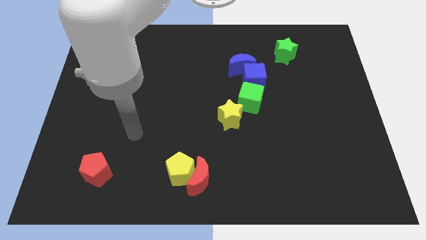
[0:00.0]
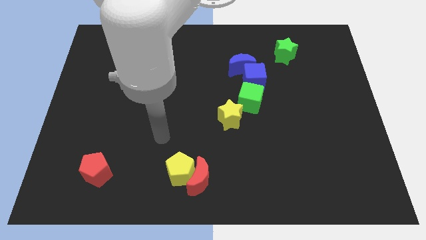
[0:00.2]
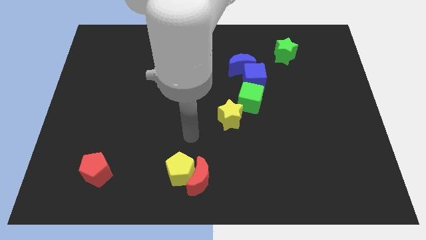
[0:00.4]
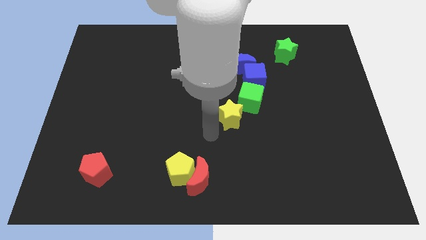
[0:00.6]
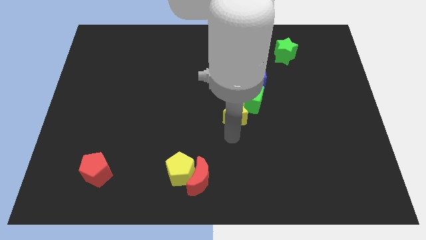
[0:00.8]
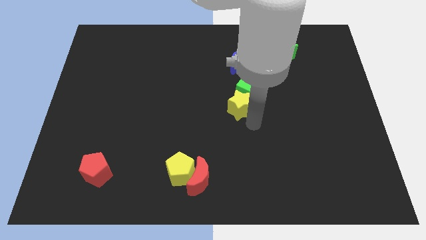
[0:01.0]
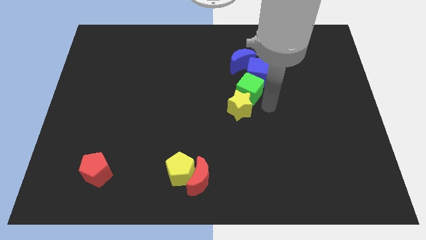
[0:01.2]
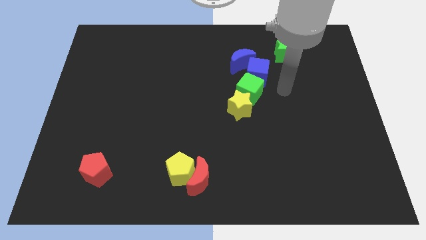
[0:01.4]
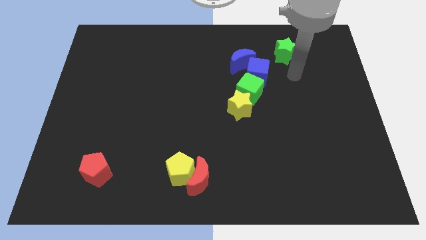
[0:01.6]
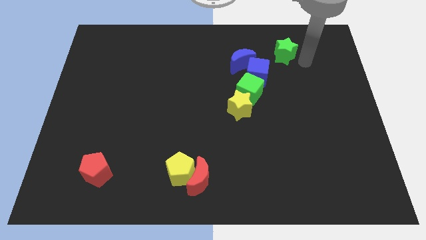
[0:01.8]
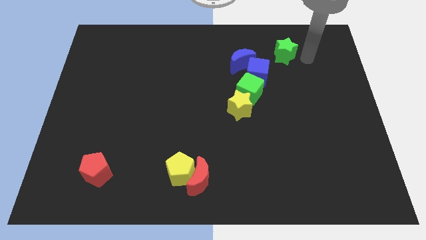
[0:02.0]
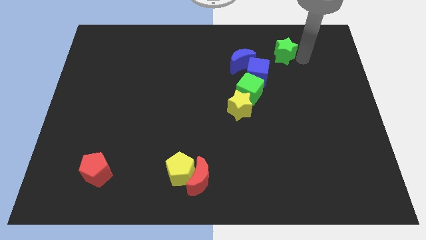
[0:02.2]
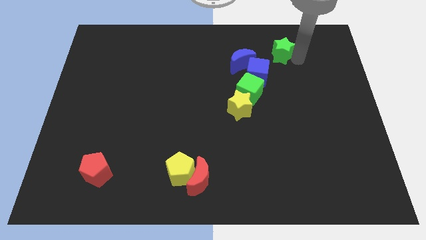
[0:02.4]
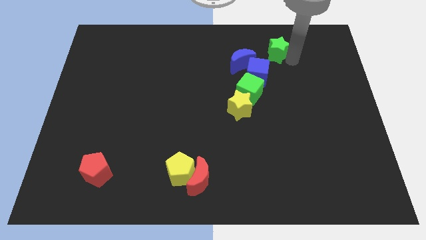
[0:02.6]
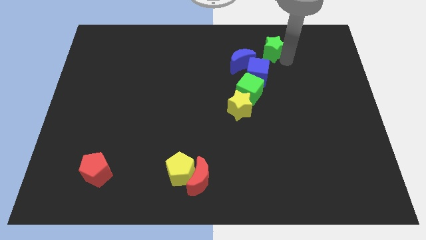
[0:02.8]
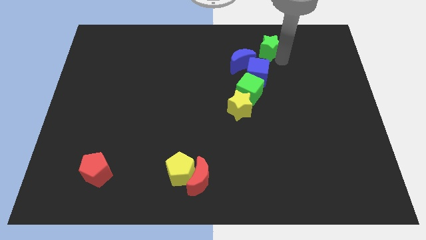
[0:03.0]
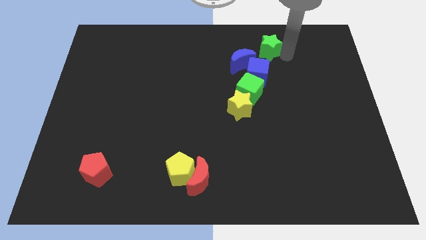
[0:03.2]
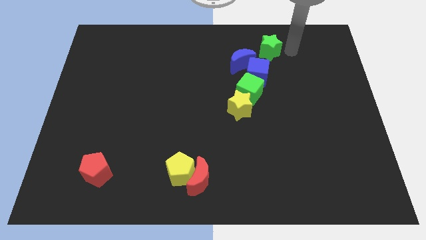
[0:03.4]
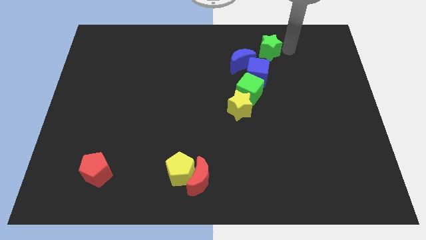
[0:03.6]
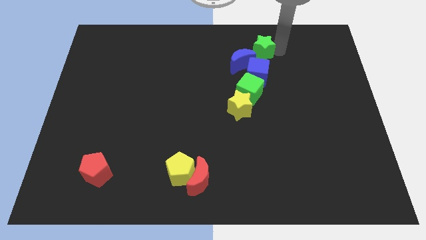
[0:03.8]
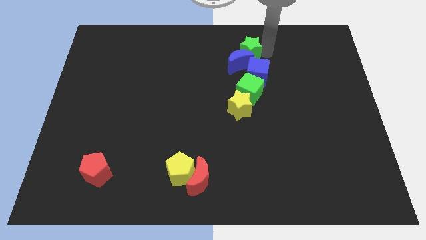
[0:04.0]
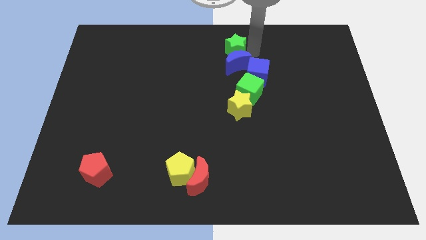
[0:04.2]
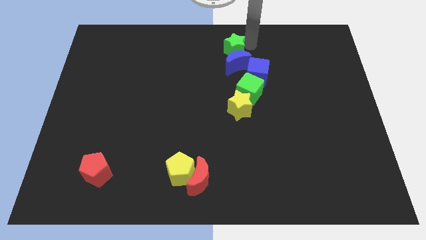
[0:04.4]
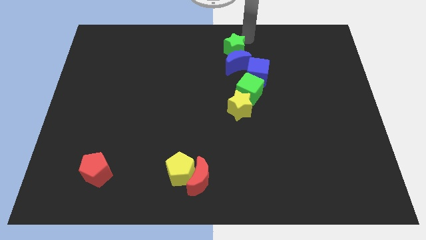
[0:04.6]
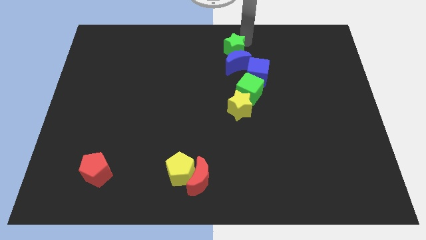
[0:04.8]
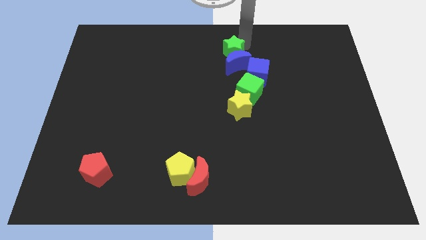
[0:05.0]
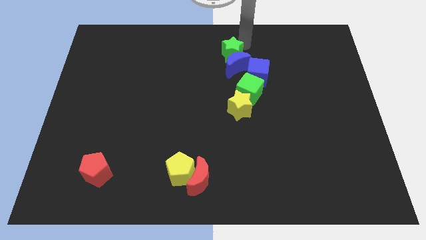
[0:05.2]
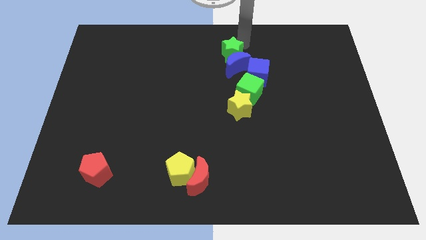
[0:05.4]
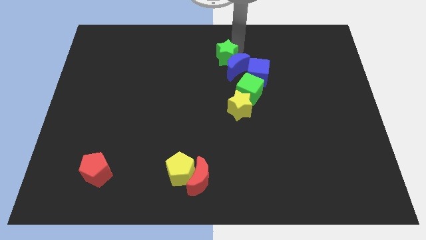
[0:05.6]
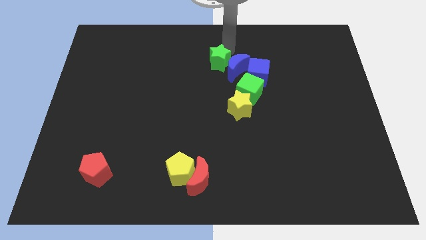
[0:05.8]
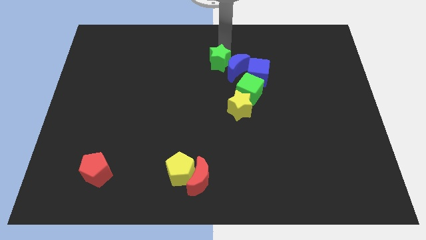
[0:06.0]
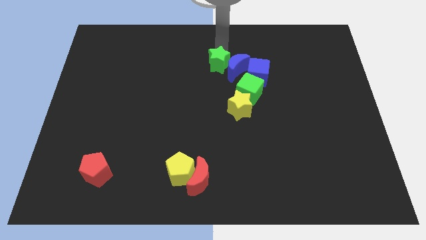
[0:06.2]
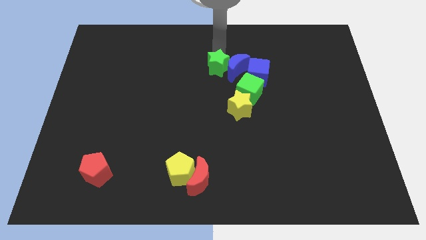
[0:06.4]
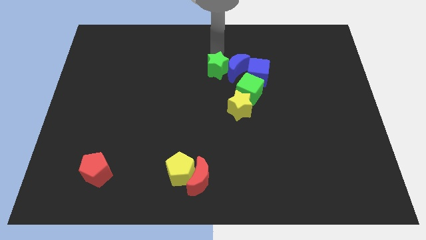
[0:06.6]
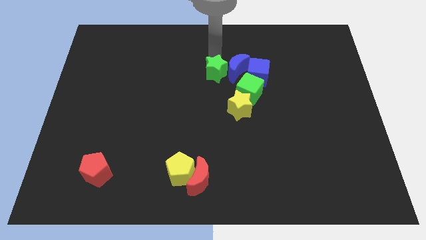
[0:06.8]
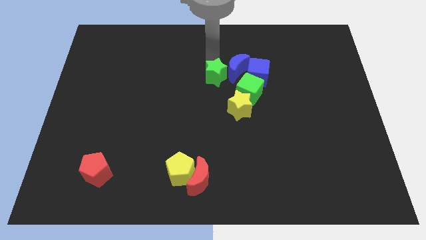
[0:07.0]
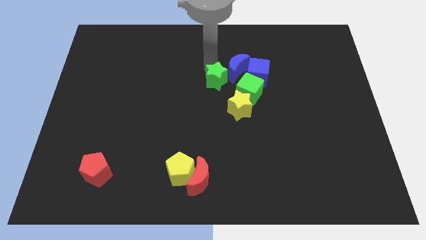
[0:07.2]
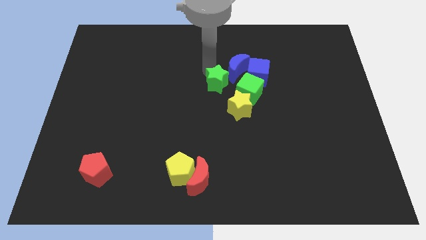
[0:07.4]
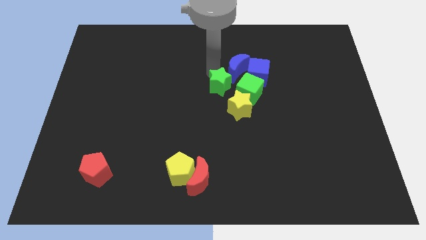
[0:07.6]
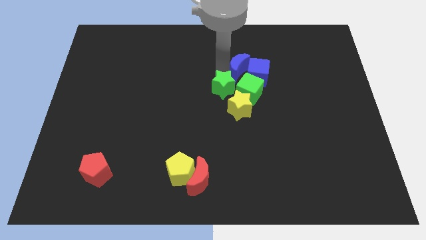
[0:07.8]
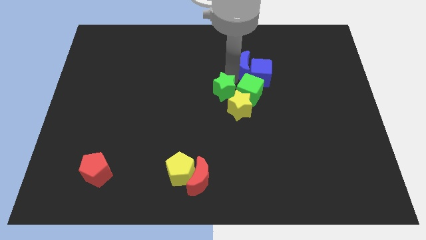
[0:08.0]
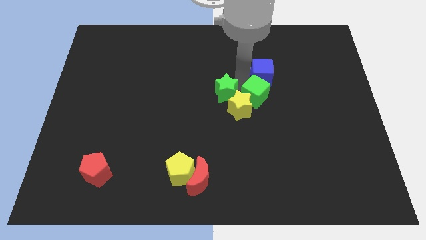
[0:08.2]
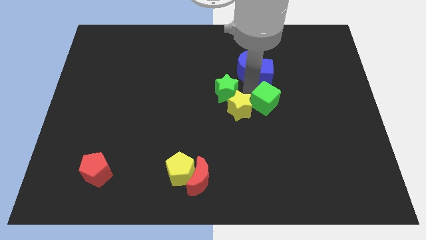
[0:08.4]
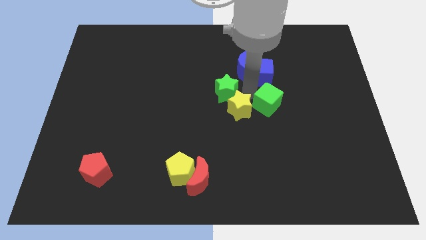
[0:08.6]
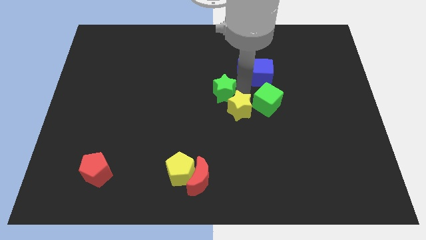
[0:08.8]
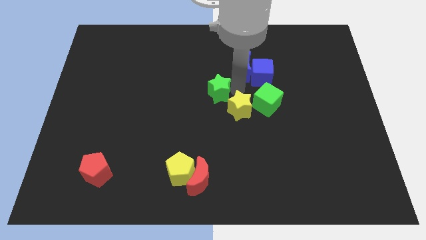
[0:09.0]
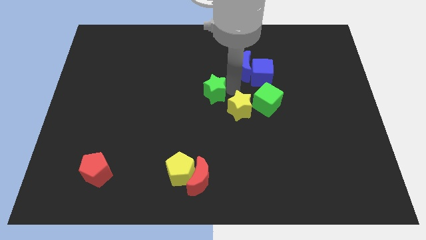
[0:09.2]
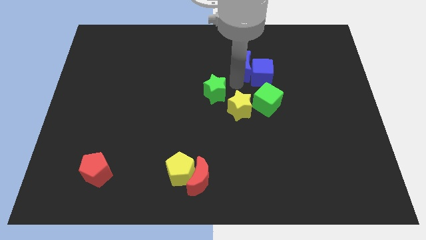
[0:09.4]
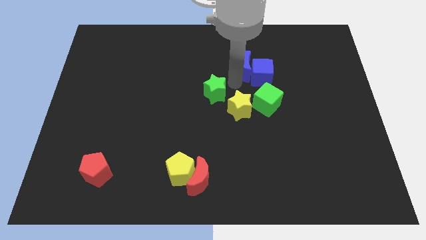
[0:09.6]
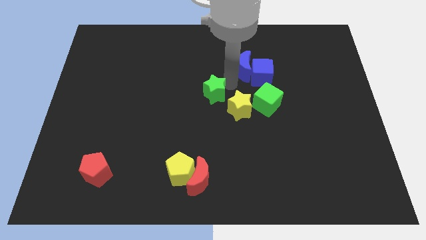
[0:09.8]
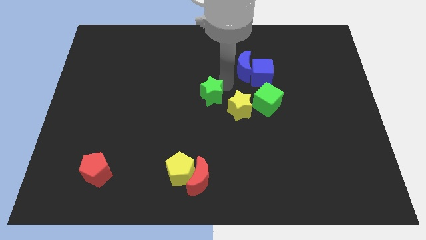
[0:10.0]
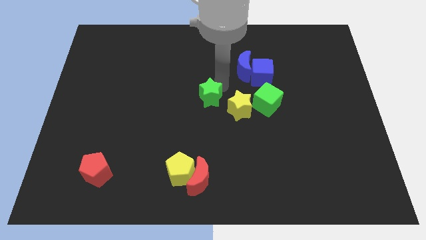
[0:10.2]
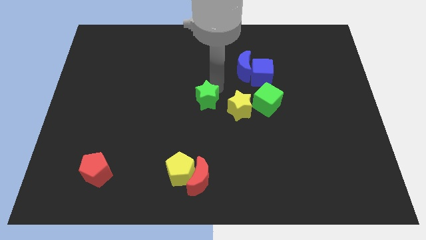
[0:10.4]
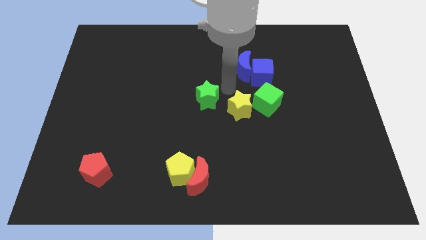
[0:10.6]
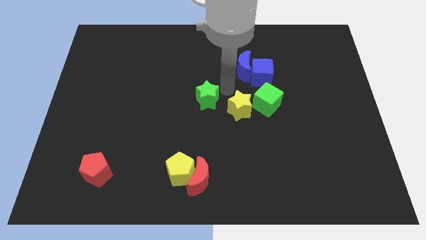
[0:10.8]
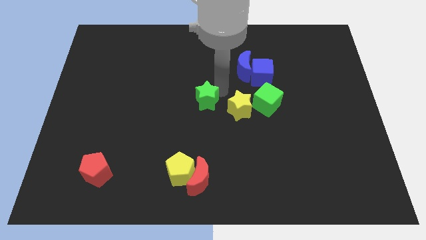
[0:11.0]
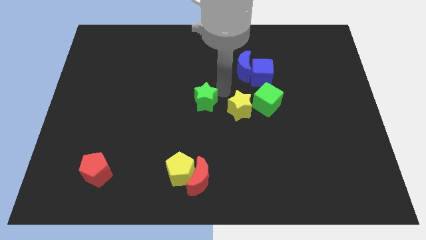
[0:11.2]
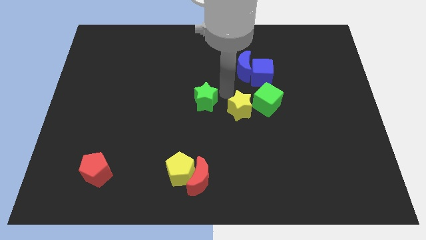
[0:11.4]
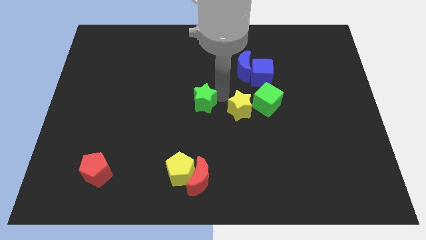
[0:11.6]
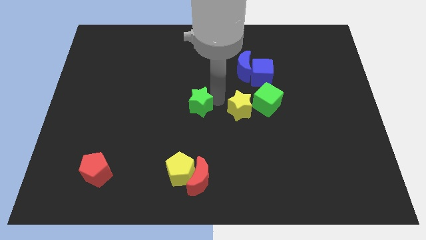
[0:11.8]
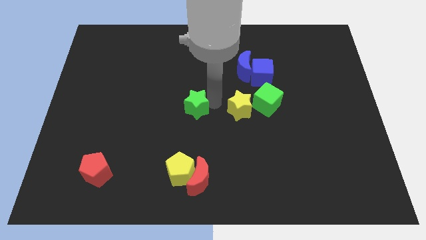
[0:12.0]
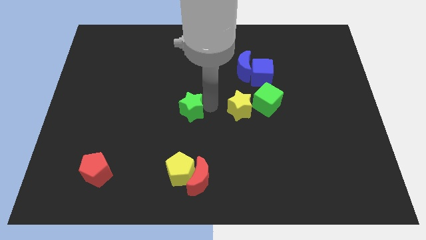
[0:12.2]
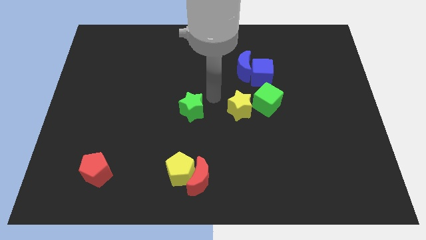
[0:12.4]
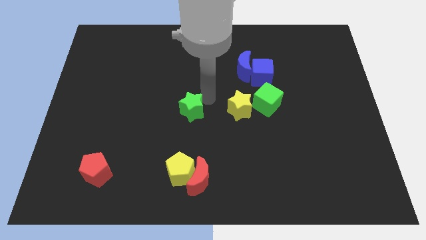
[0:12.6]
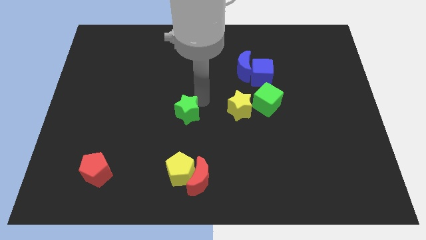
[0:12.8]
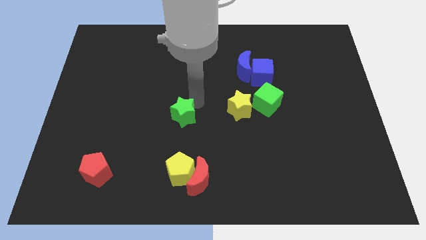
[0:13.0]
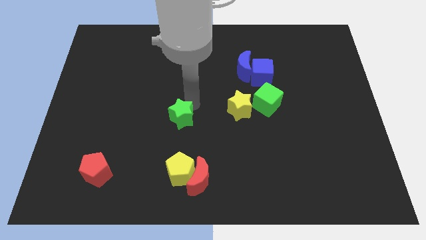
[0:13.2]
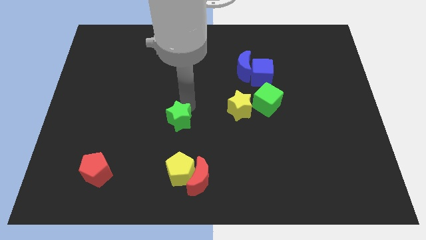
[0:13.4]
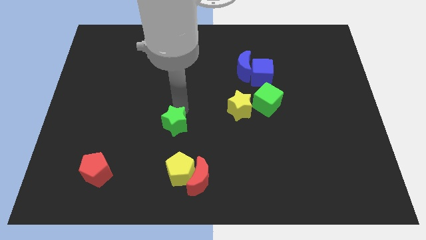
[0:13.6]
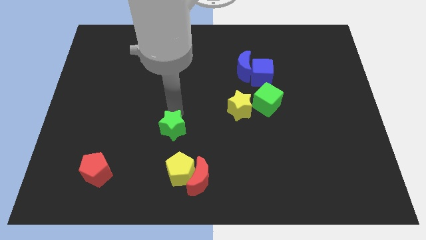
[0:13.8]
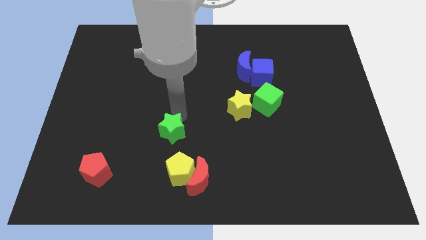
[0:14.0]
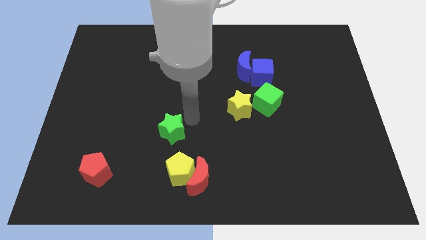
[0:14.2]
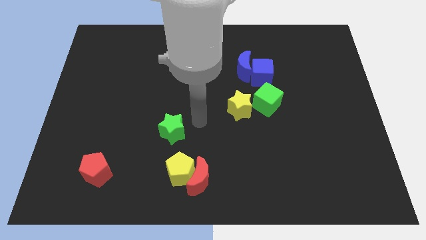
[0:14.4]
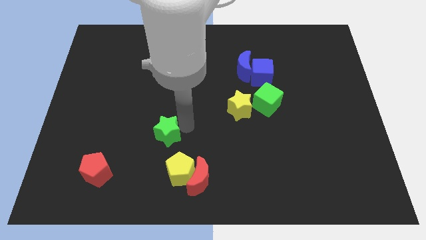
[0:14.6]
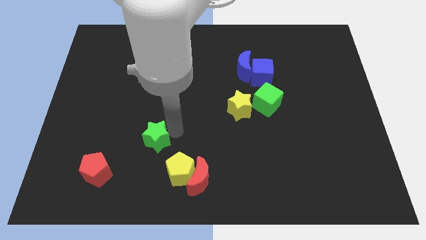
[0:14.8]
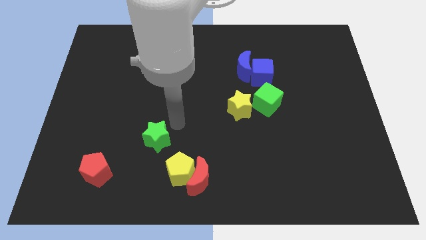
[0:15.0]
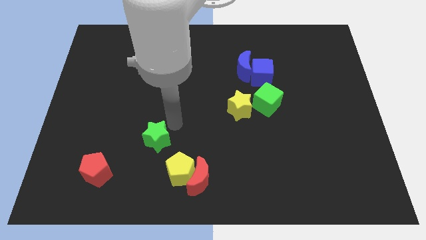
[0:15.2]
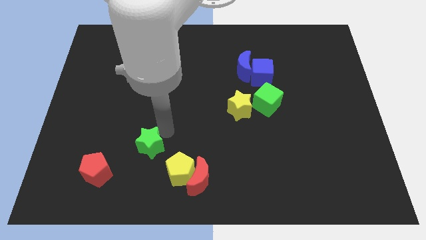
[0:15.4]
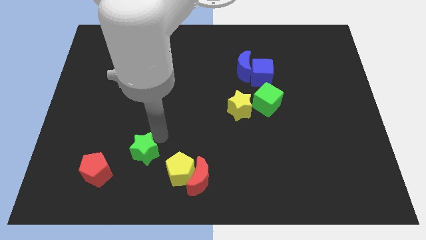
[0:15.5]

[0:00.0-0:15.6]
put the green star to the left side of the yellow pentagon

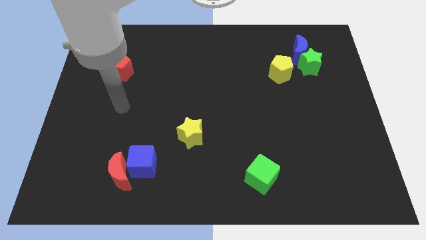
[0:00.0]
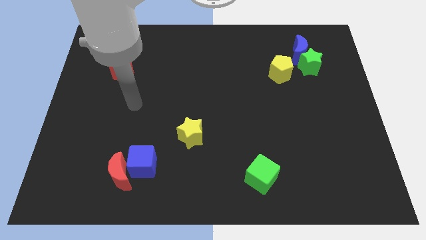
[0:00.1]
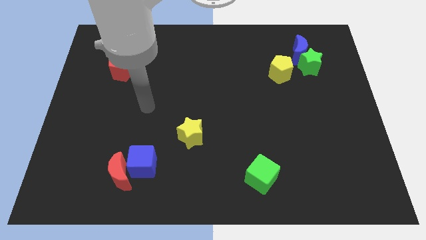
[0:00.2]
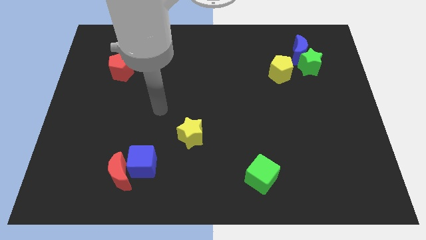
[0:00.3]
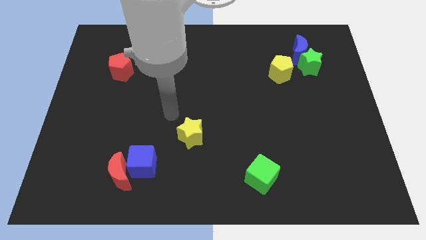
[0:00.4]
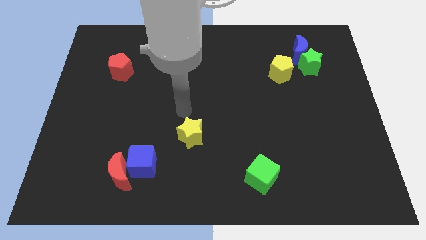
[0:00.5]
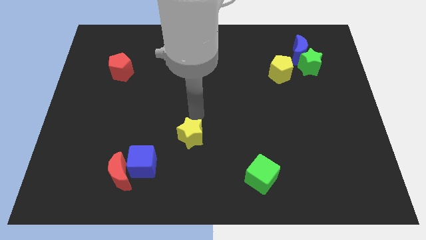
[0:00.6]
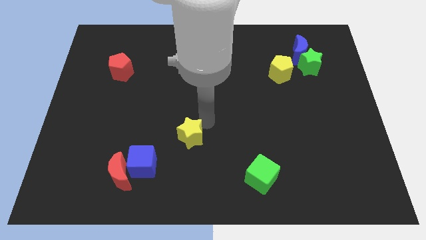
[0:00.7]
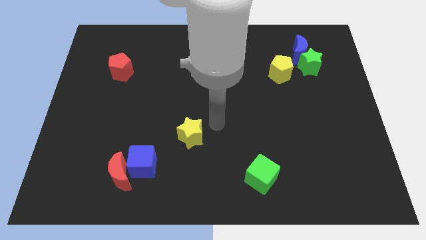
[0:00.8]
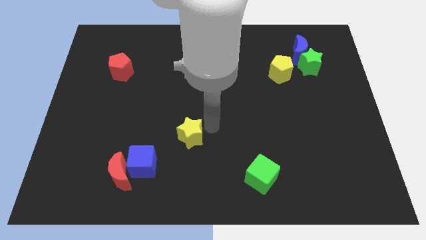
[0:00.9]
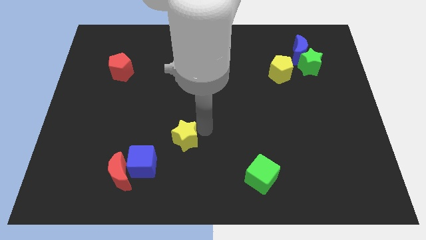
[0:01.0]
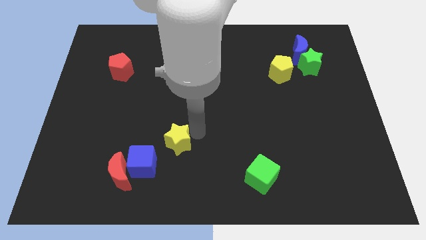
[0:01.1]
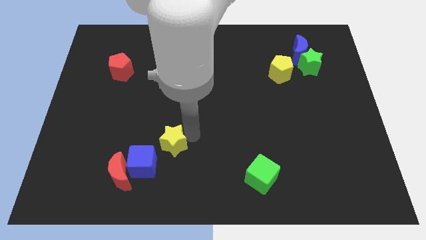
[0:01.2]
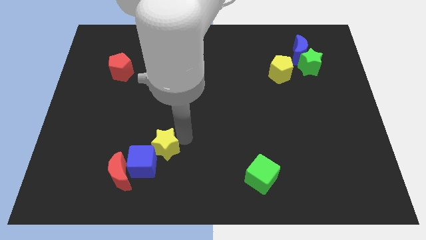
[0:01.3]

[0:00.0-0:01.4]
put the yellow star diagonally up and to the right of the red moon
